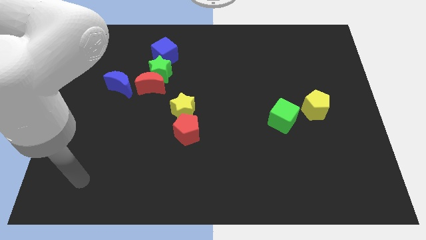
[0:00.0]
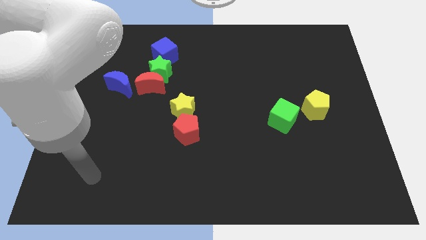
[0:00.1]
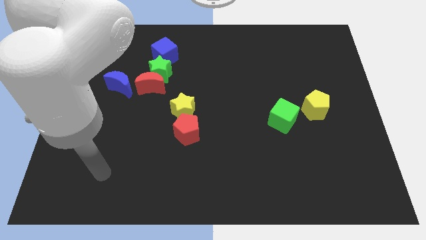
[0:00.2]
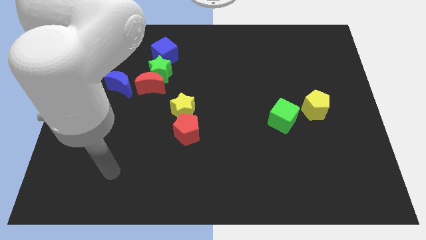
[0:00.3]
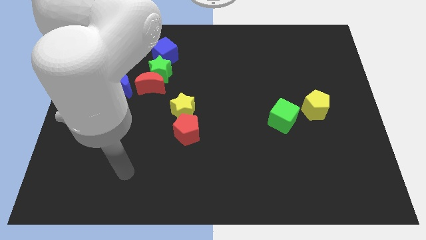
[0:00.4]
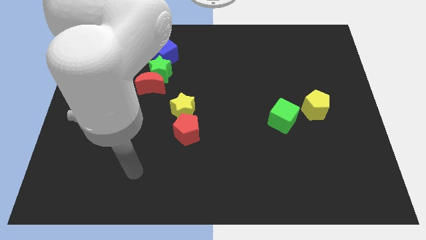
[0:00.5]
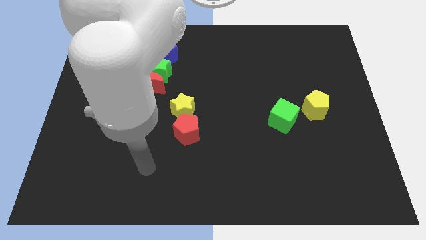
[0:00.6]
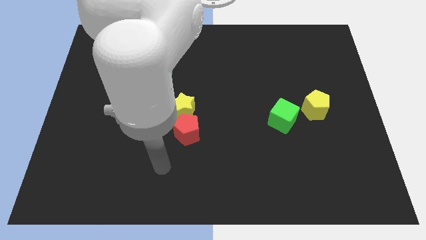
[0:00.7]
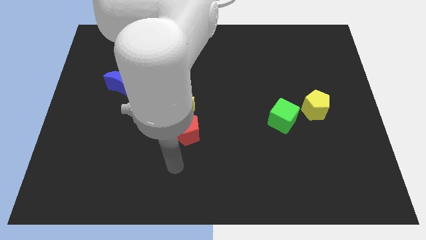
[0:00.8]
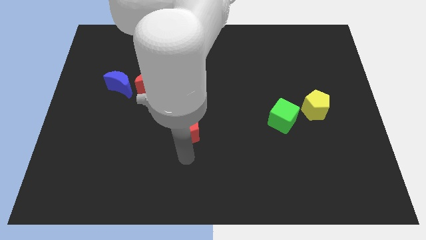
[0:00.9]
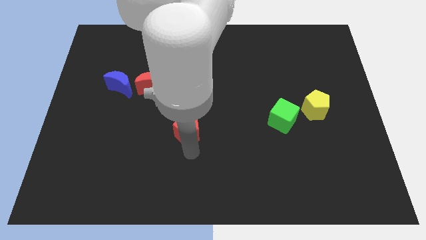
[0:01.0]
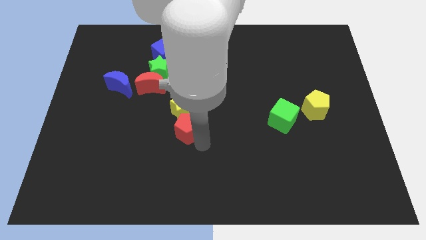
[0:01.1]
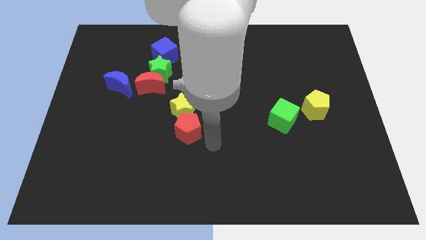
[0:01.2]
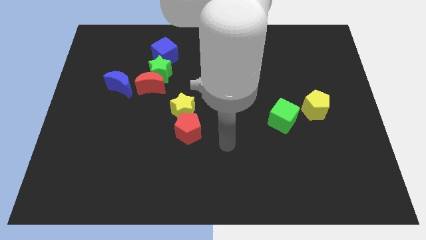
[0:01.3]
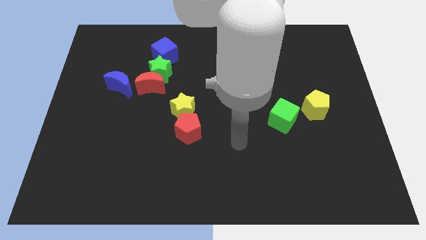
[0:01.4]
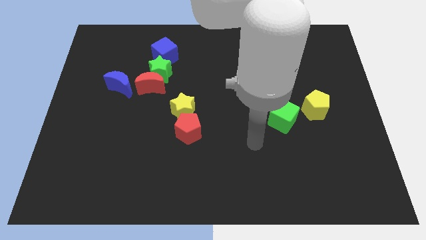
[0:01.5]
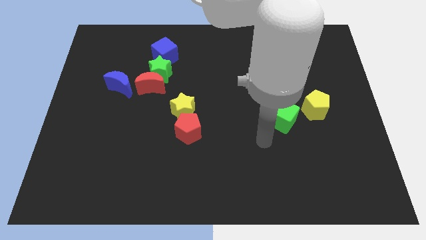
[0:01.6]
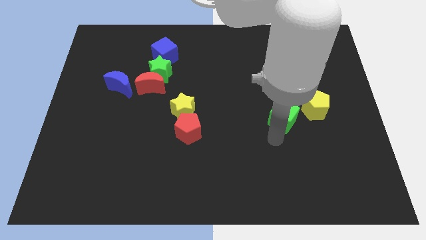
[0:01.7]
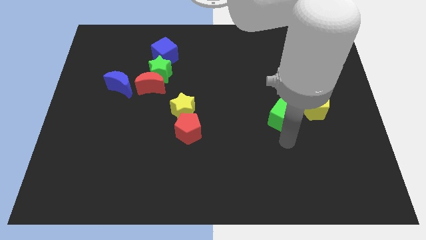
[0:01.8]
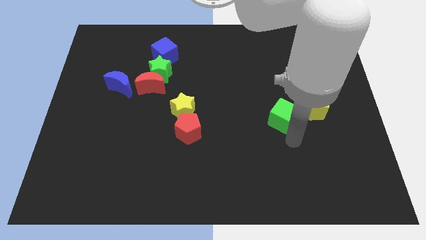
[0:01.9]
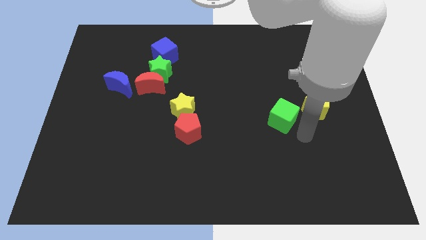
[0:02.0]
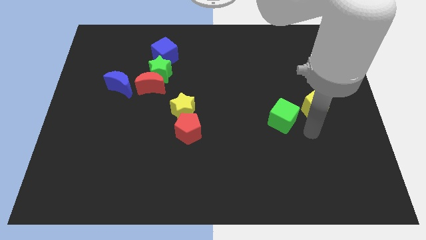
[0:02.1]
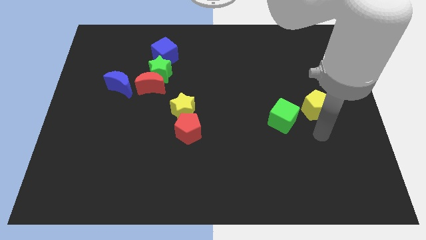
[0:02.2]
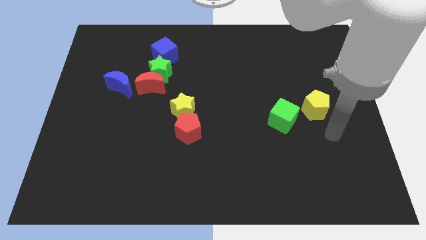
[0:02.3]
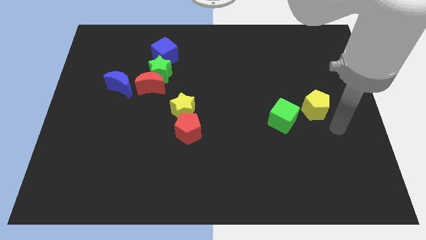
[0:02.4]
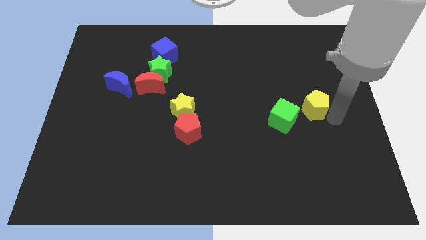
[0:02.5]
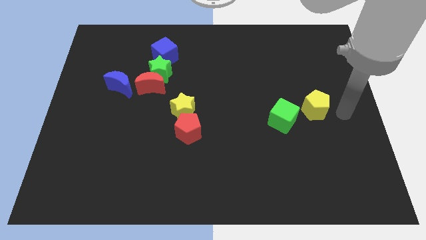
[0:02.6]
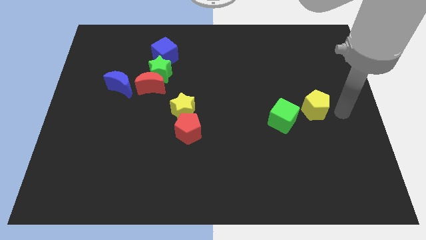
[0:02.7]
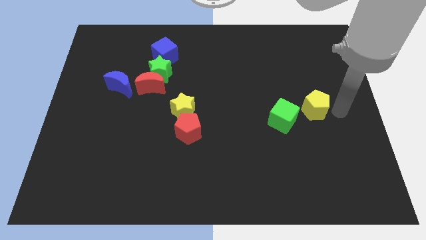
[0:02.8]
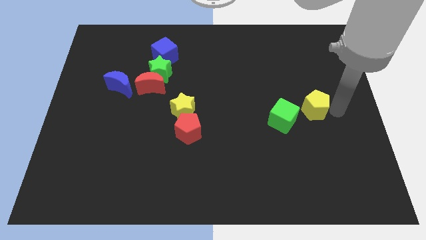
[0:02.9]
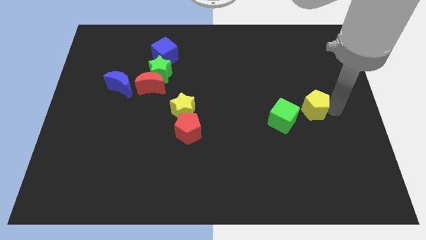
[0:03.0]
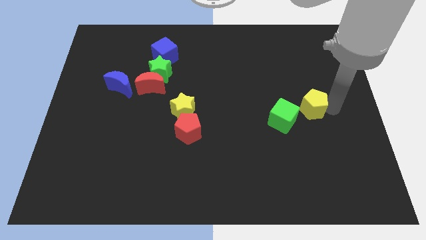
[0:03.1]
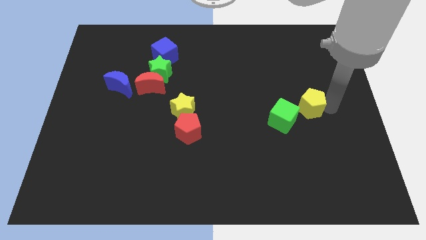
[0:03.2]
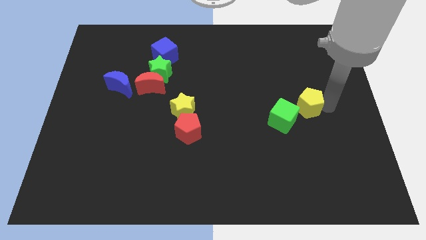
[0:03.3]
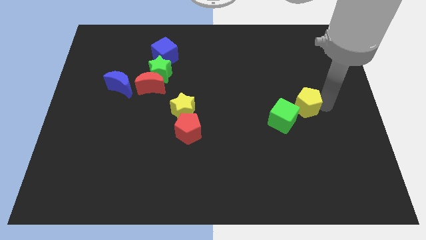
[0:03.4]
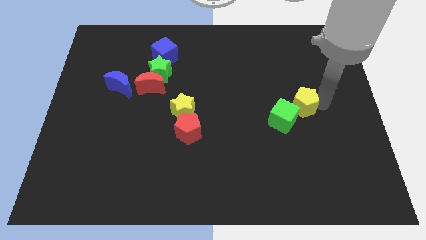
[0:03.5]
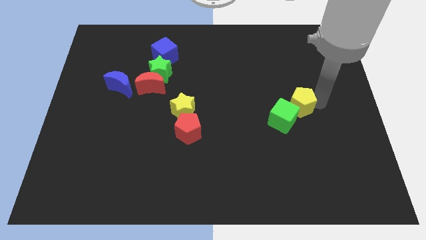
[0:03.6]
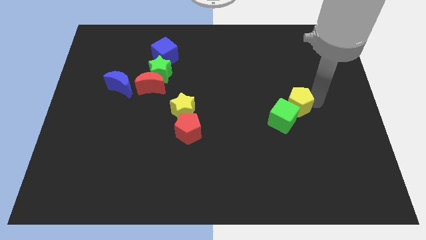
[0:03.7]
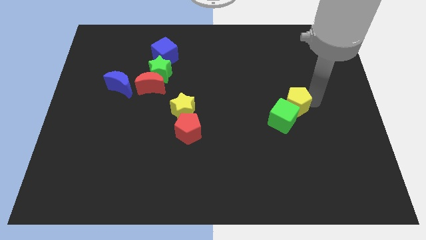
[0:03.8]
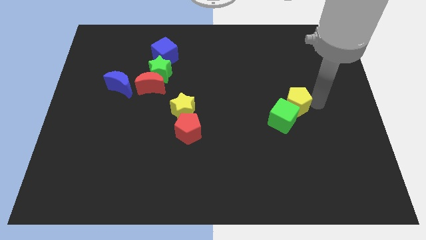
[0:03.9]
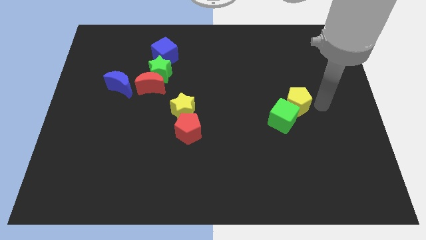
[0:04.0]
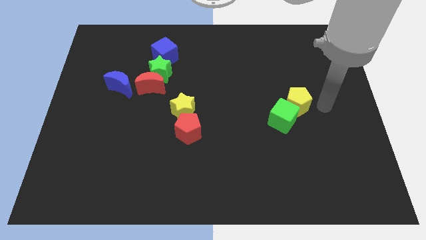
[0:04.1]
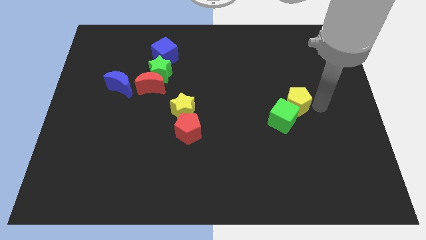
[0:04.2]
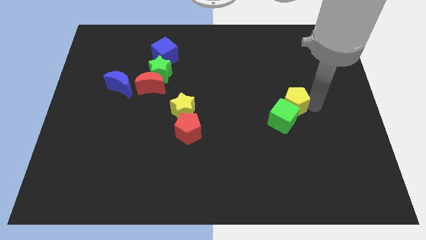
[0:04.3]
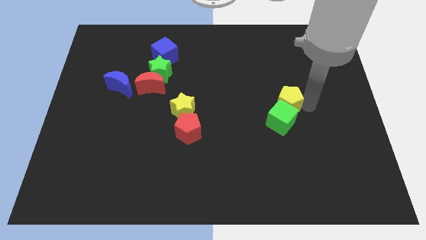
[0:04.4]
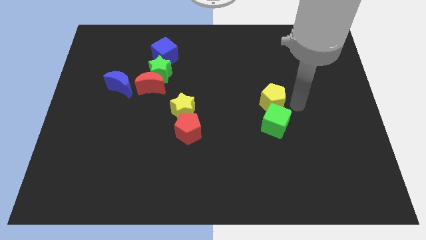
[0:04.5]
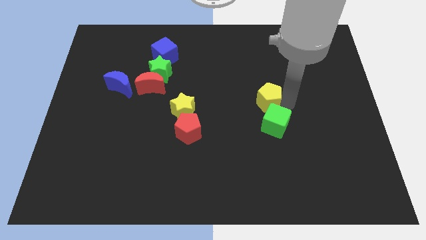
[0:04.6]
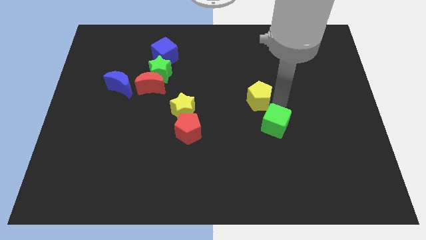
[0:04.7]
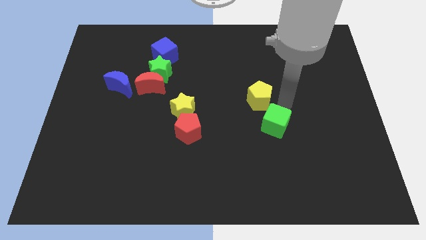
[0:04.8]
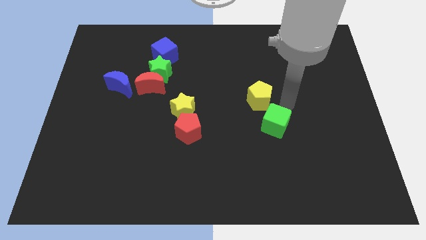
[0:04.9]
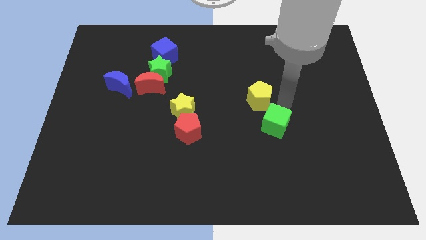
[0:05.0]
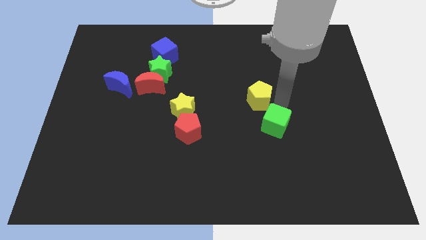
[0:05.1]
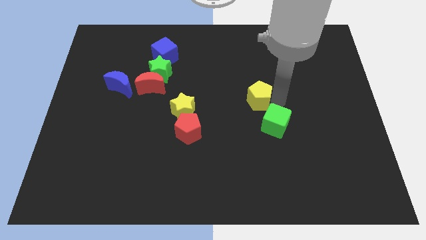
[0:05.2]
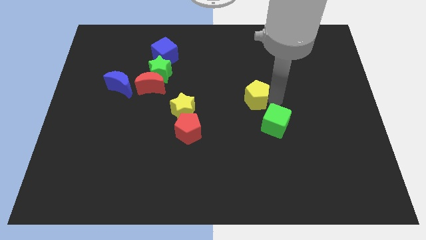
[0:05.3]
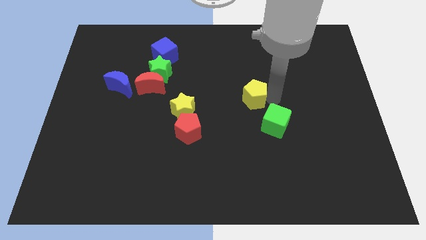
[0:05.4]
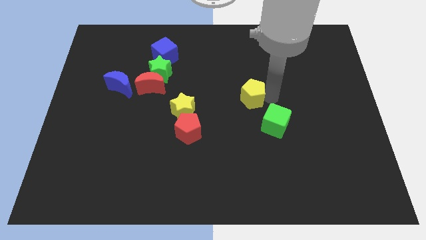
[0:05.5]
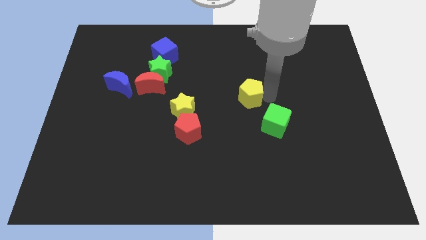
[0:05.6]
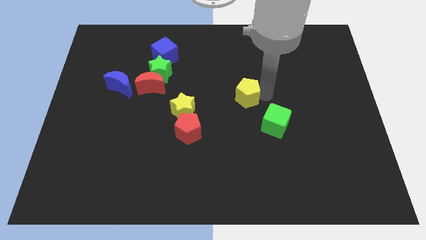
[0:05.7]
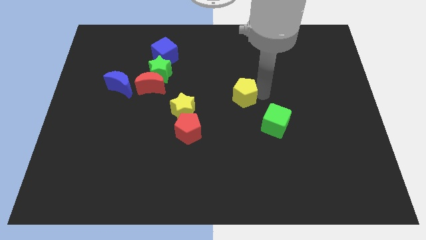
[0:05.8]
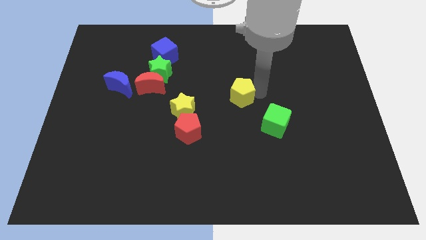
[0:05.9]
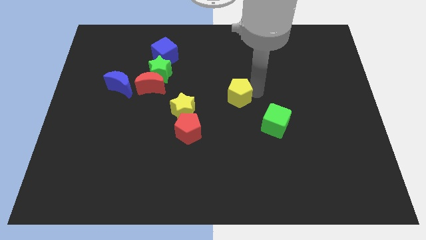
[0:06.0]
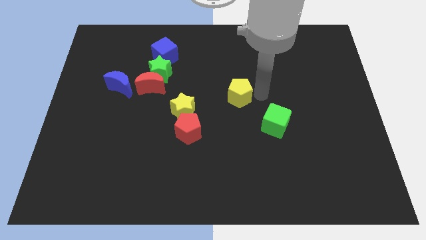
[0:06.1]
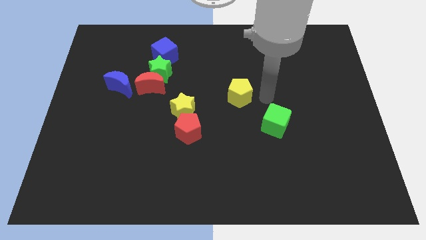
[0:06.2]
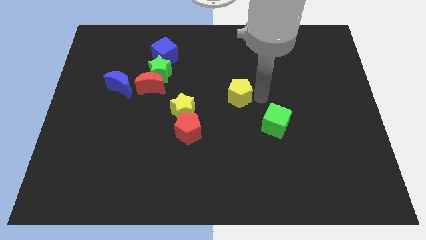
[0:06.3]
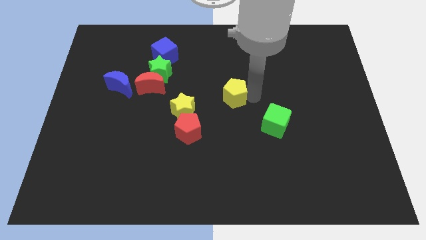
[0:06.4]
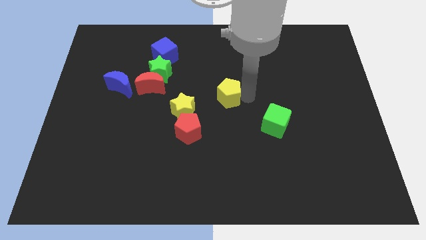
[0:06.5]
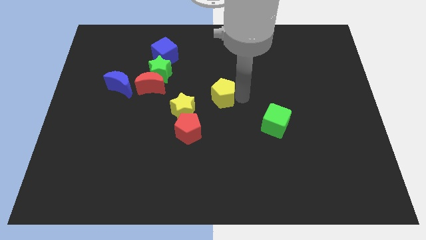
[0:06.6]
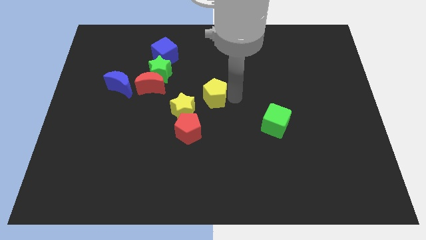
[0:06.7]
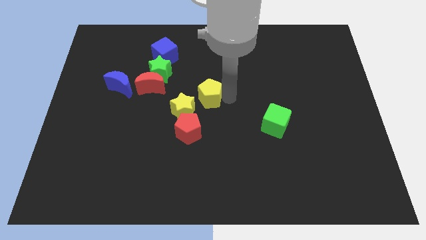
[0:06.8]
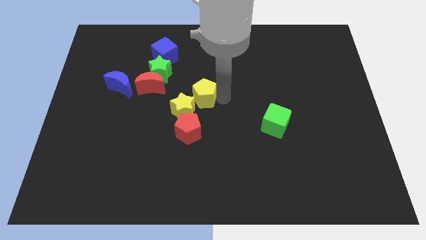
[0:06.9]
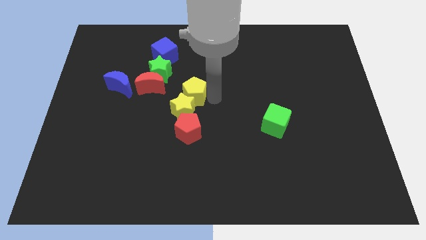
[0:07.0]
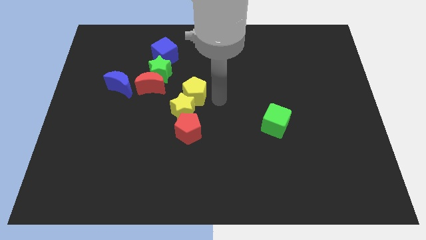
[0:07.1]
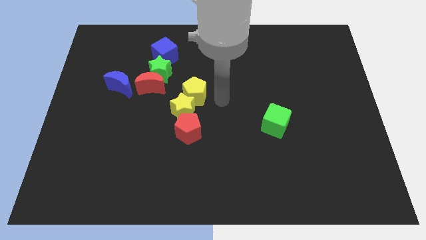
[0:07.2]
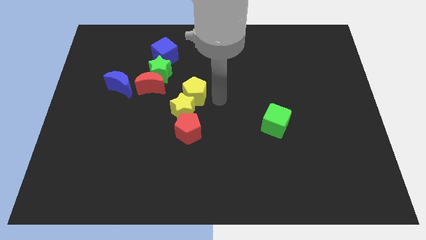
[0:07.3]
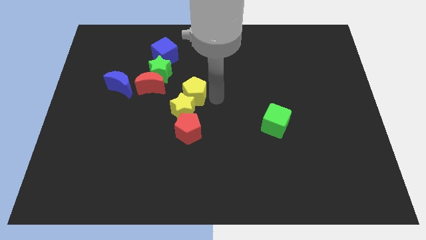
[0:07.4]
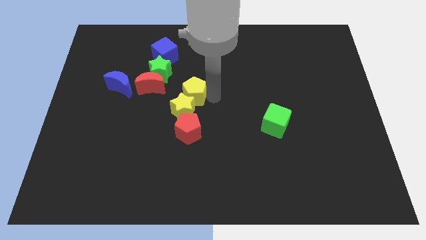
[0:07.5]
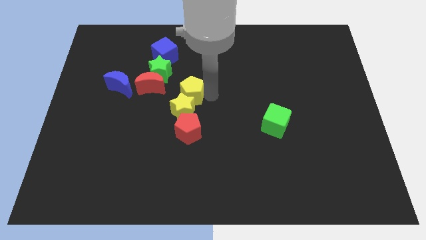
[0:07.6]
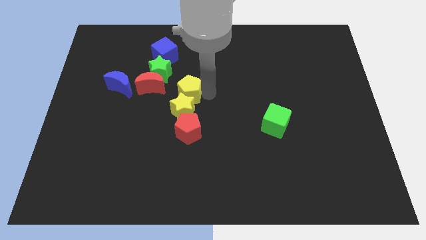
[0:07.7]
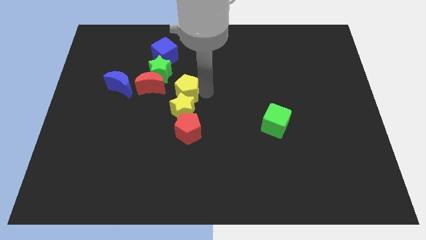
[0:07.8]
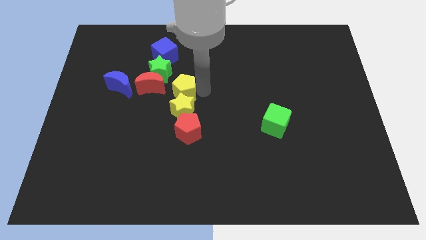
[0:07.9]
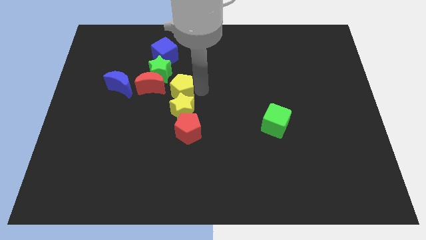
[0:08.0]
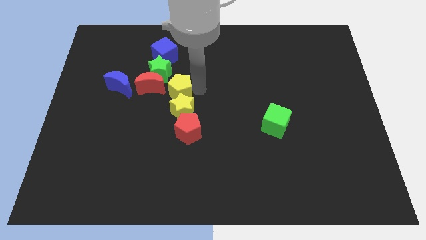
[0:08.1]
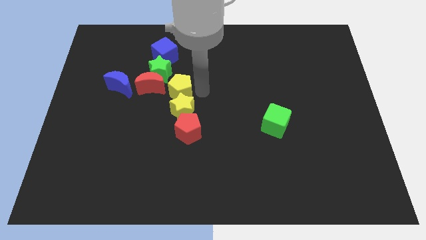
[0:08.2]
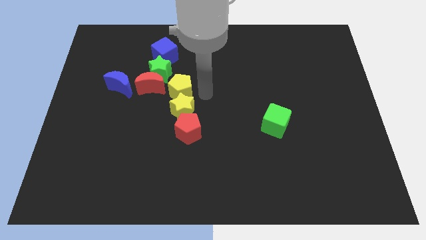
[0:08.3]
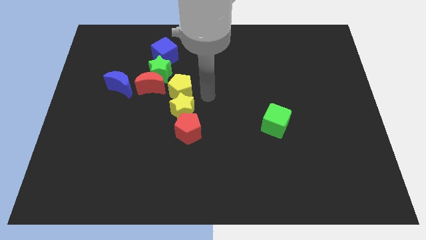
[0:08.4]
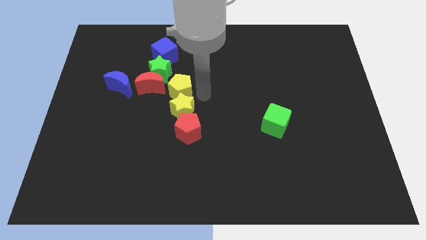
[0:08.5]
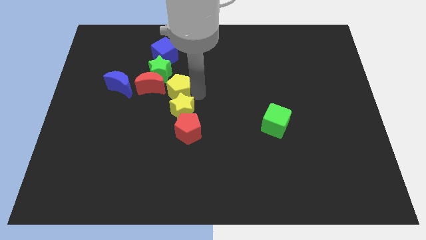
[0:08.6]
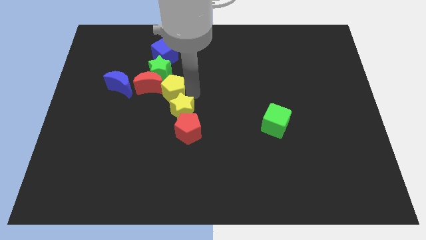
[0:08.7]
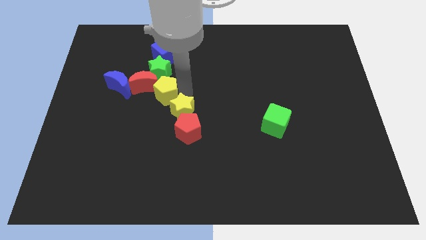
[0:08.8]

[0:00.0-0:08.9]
push the yellow pentagon to the red moon
